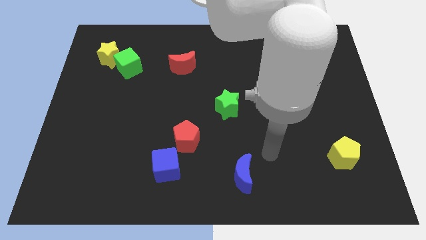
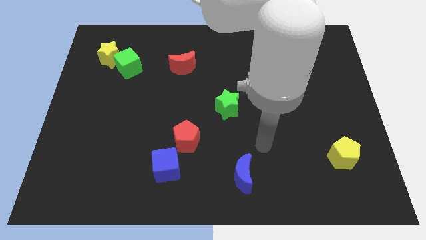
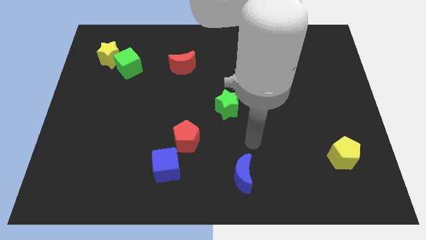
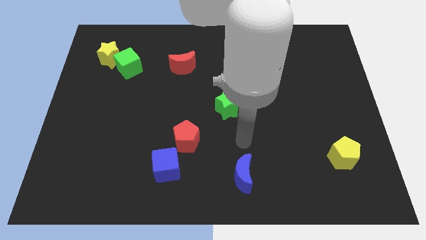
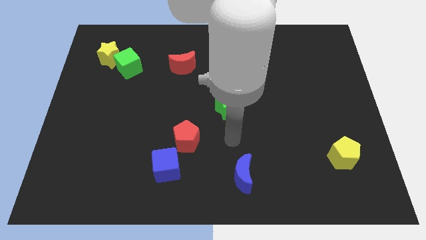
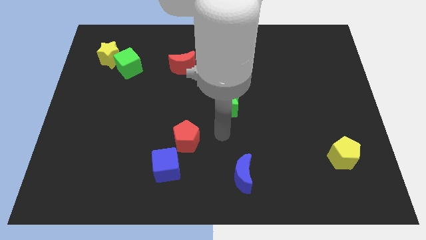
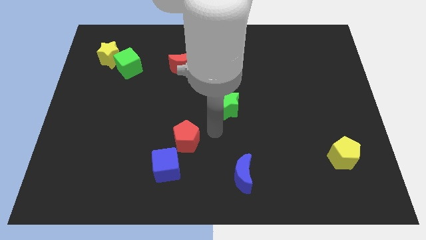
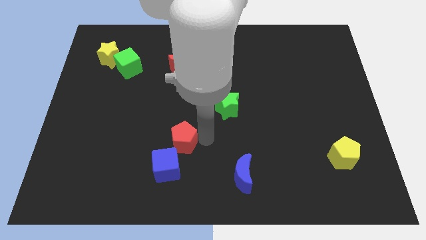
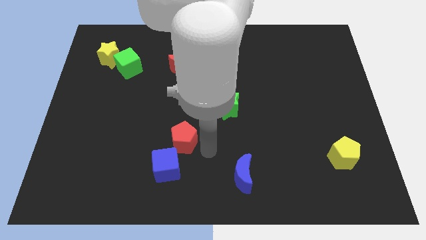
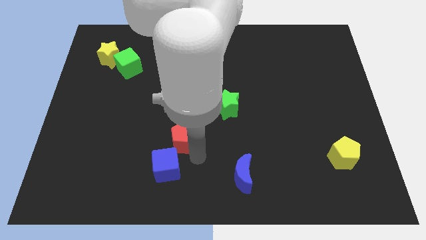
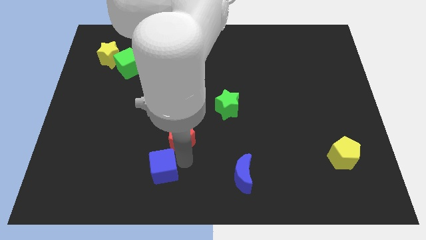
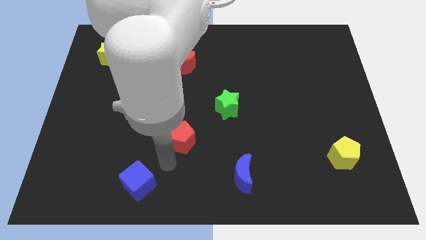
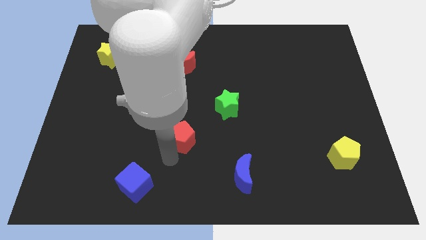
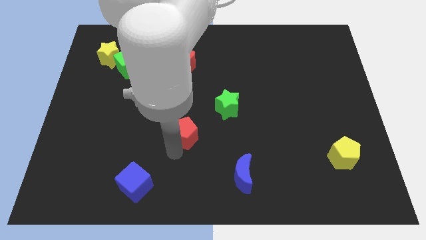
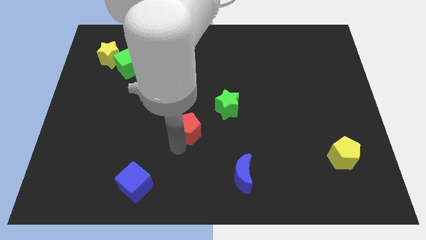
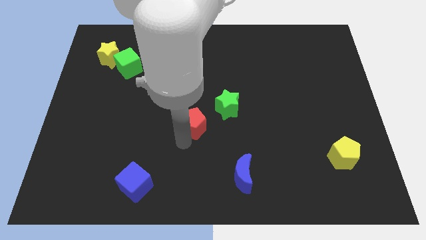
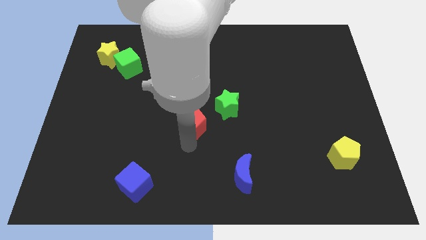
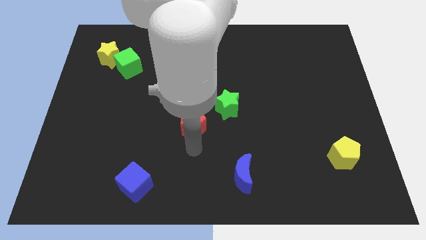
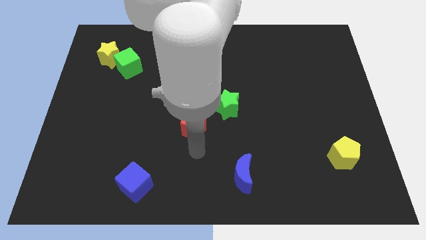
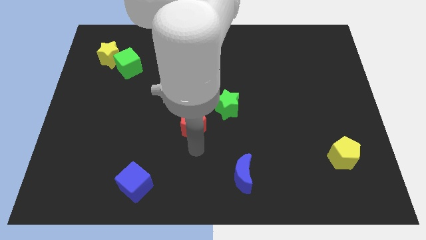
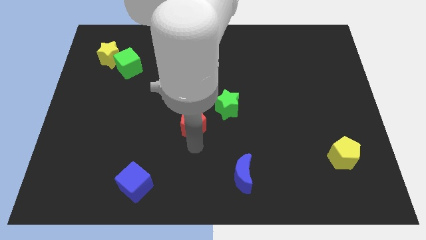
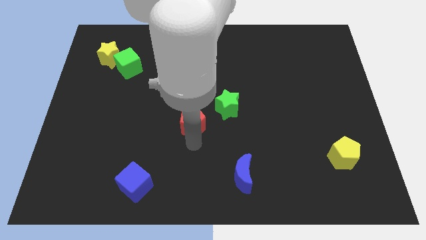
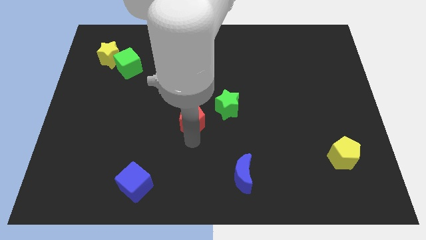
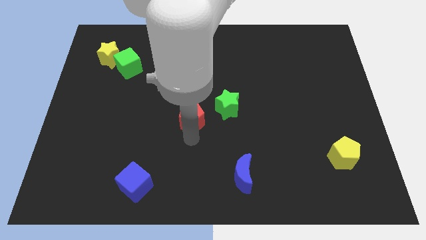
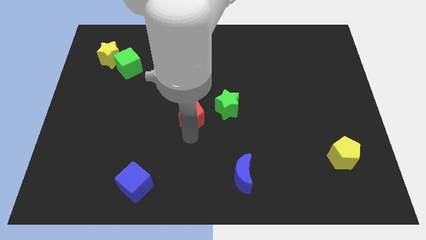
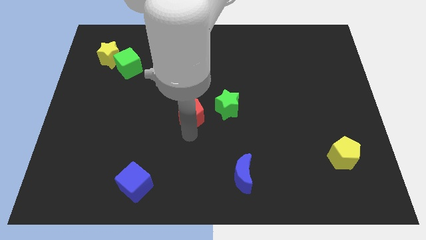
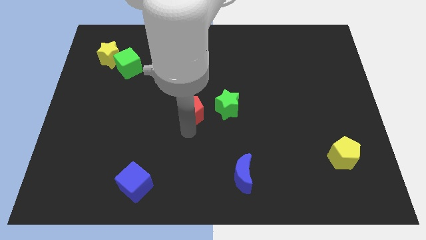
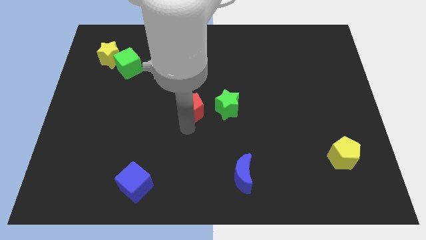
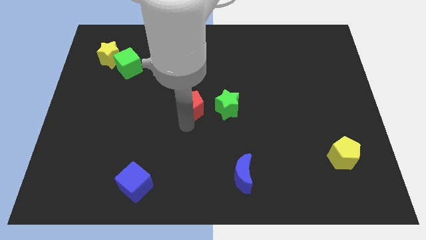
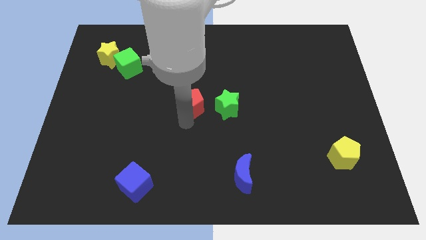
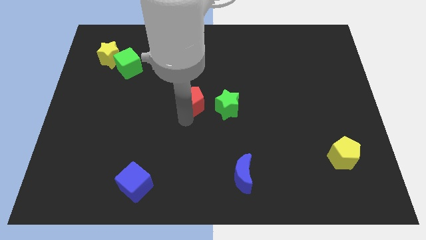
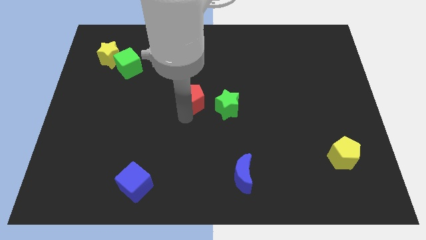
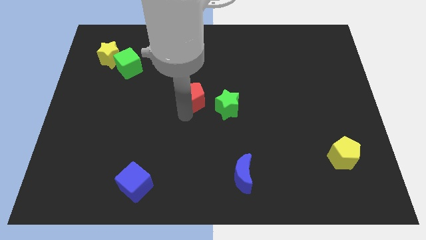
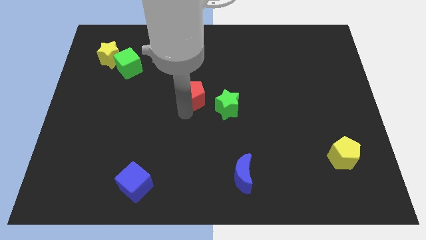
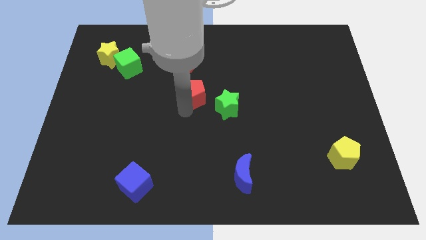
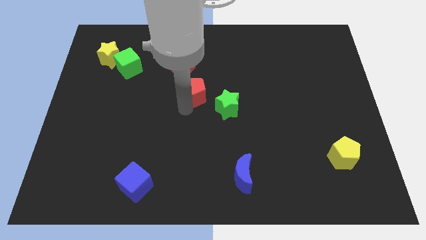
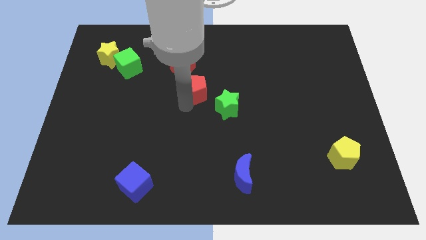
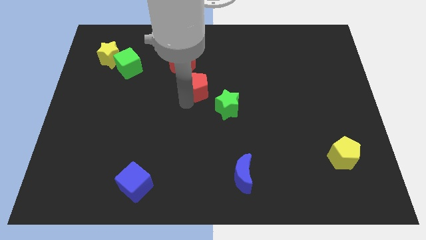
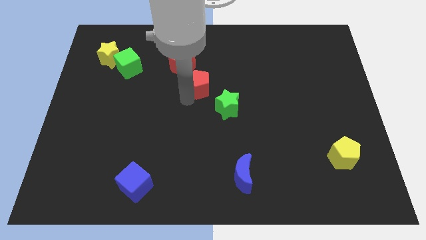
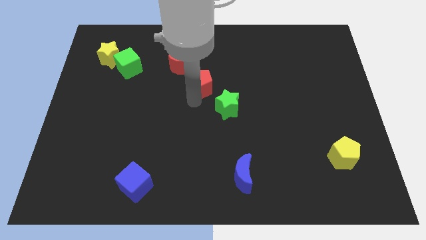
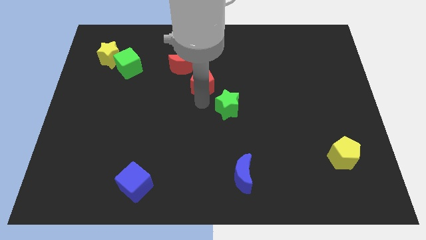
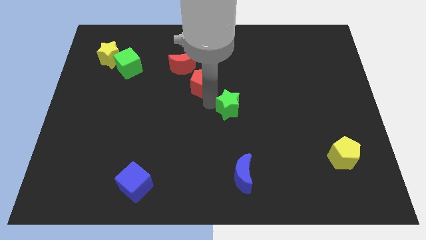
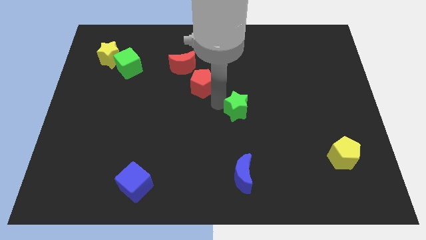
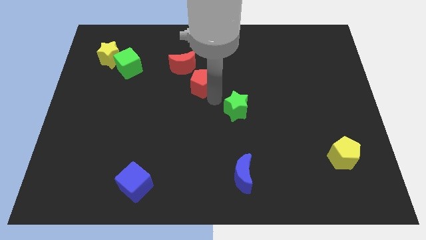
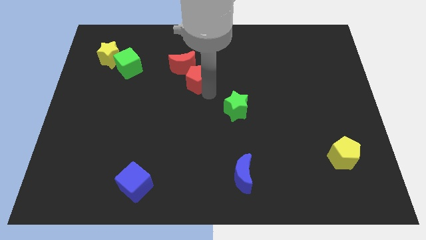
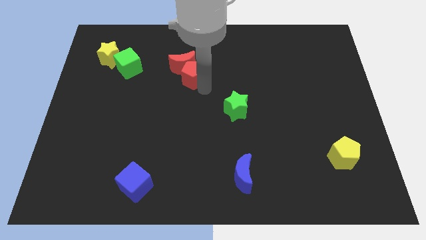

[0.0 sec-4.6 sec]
push the red pentagon close to the red moon

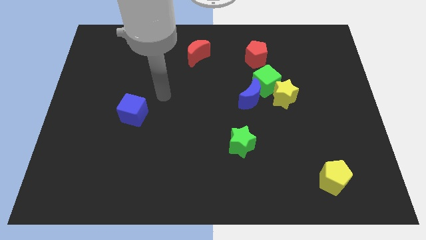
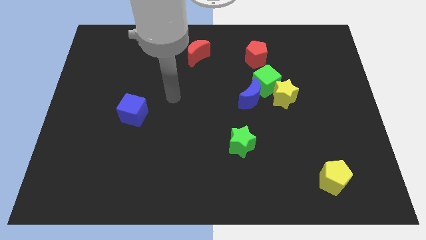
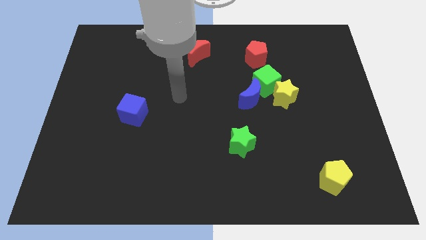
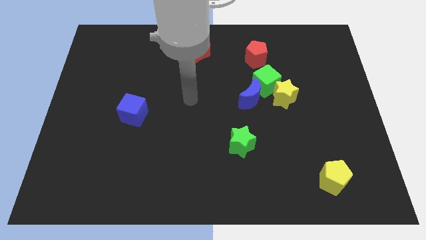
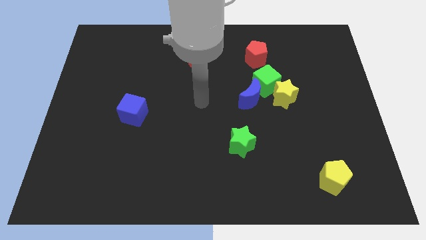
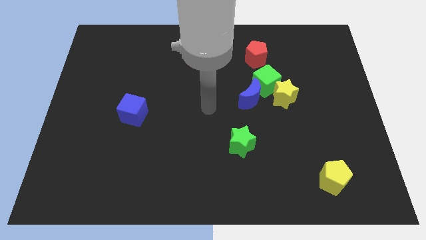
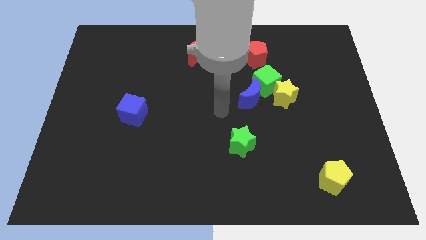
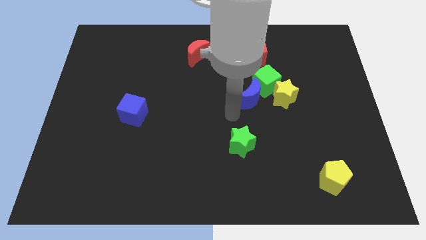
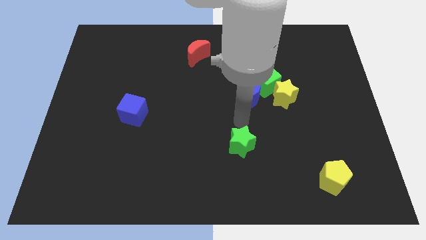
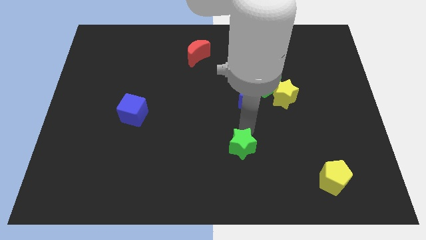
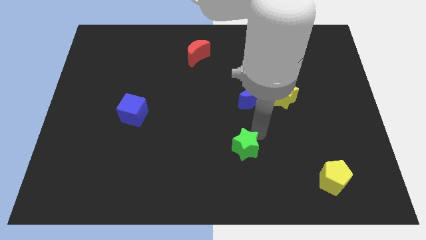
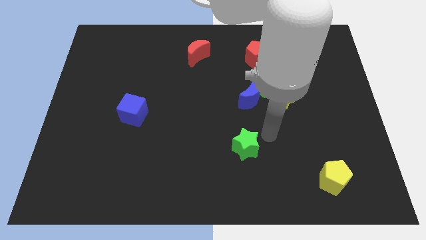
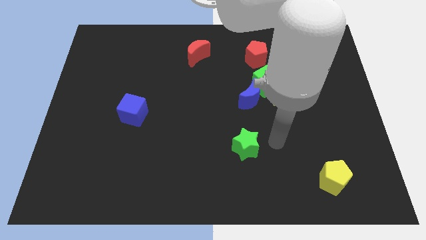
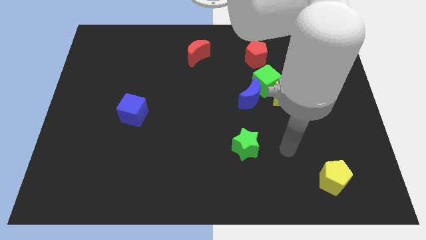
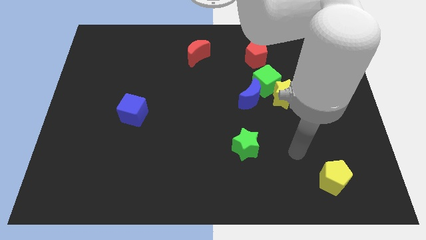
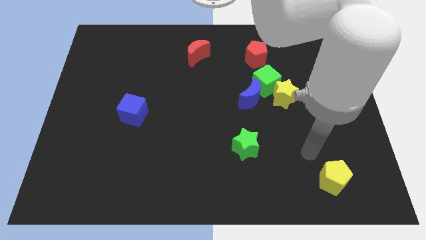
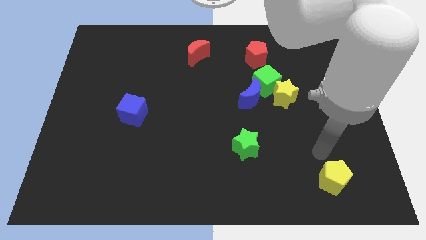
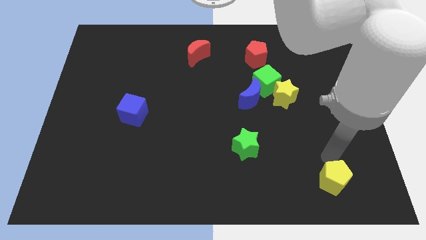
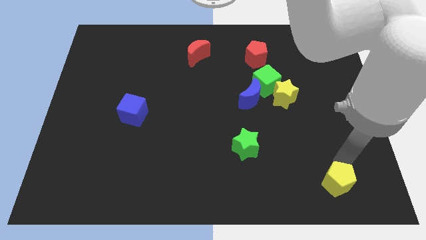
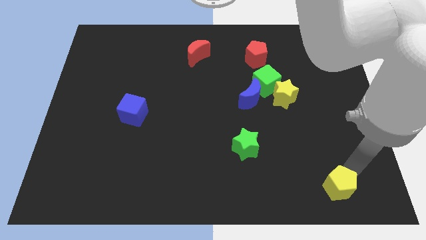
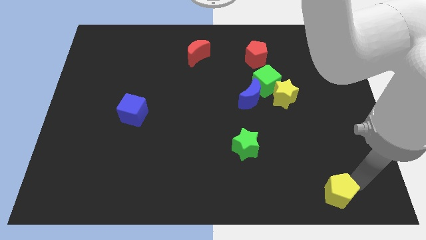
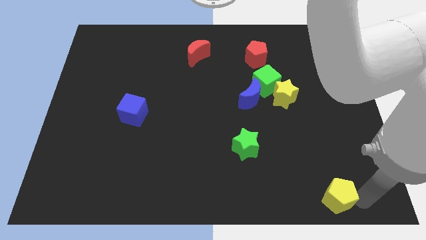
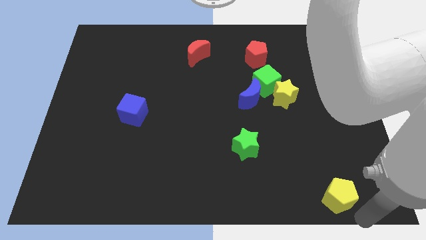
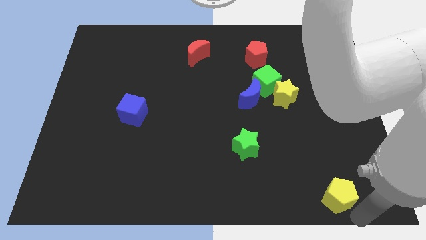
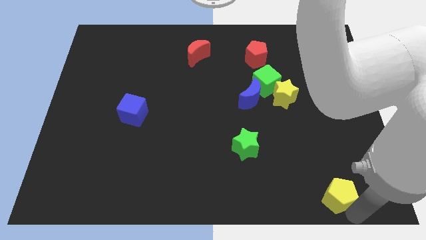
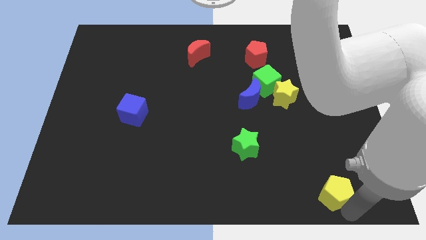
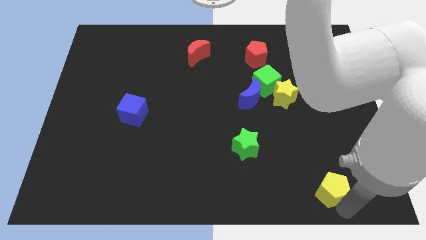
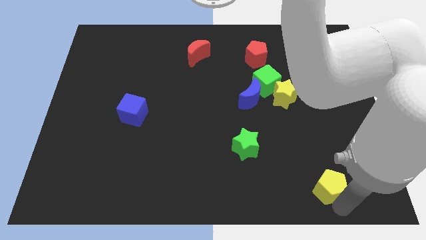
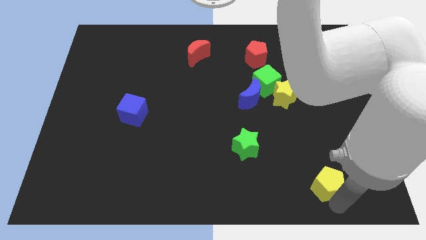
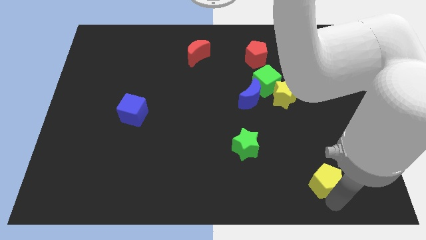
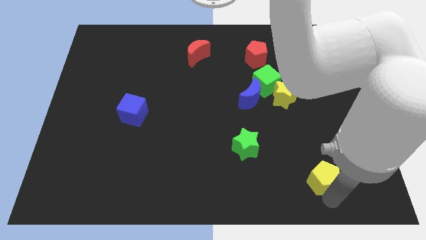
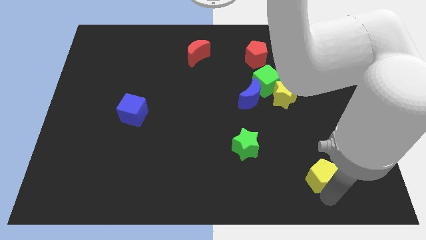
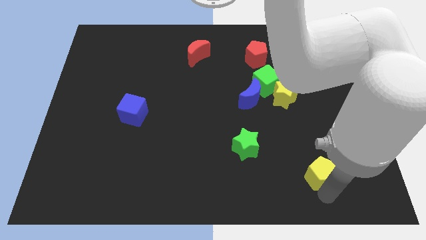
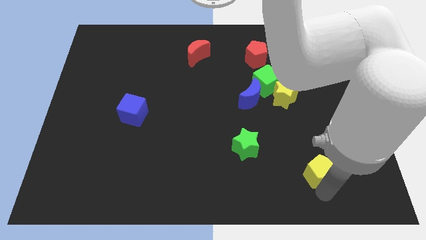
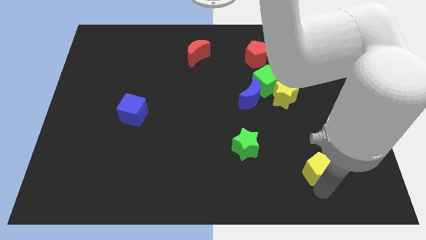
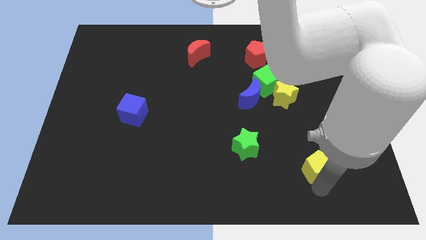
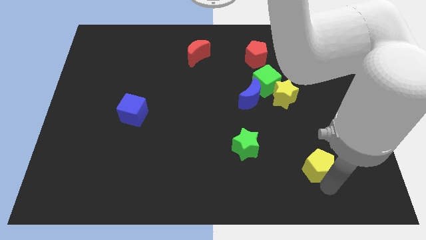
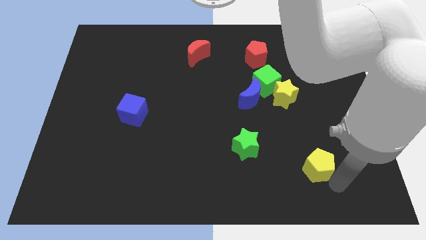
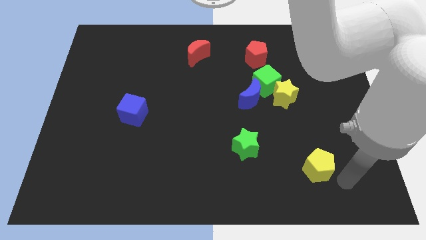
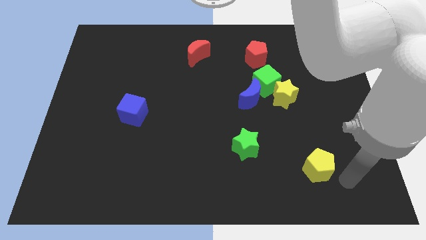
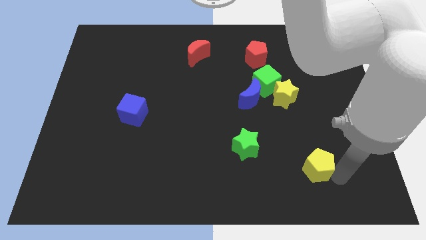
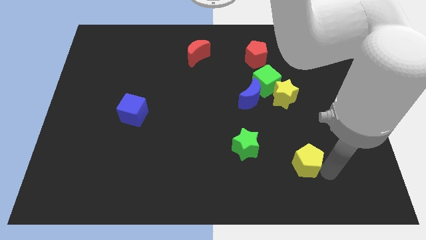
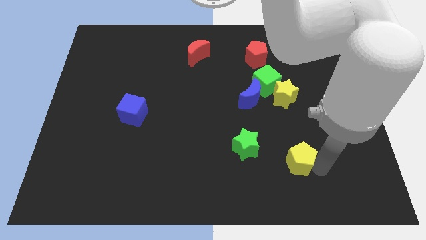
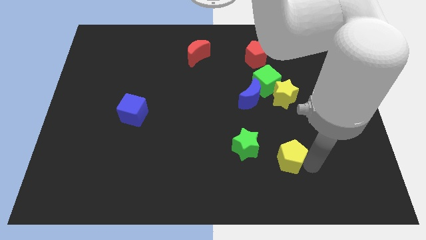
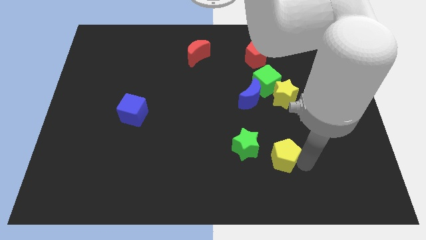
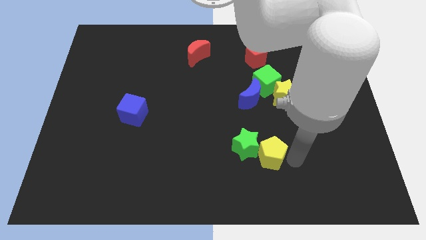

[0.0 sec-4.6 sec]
slide the yellow pentagon close to the green star
